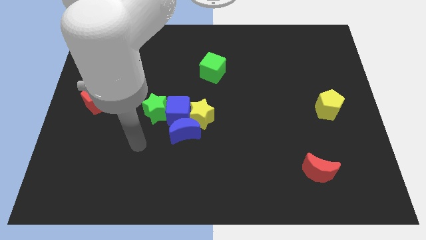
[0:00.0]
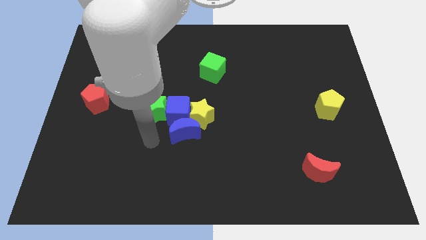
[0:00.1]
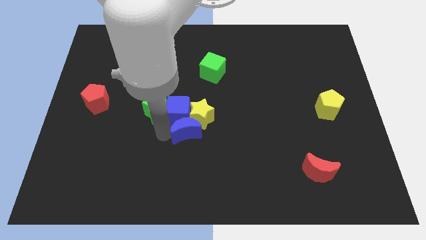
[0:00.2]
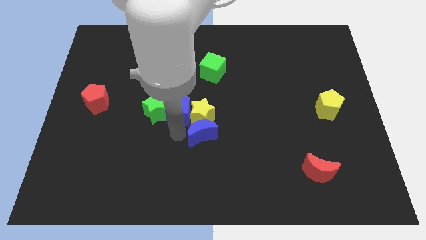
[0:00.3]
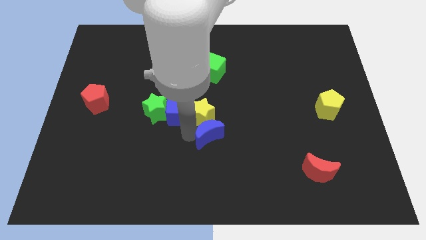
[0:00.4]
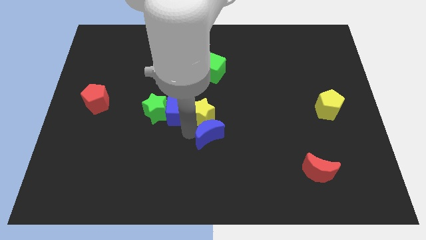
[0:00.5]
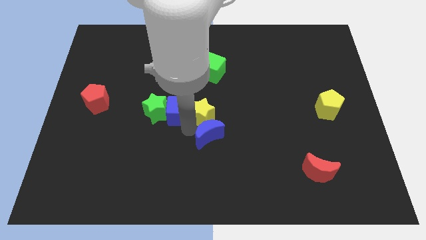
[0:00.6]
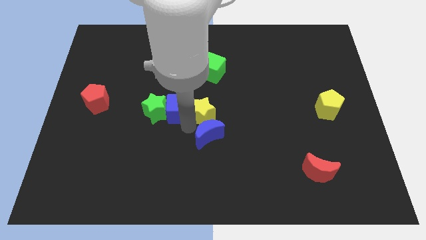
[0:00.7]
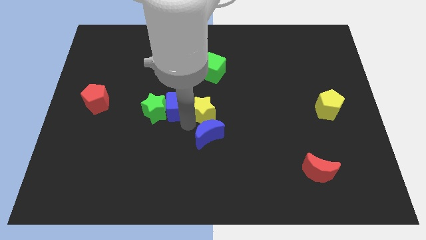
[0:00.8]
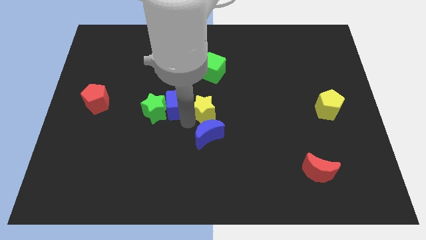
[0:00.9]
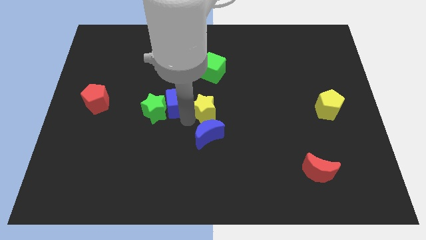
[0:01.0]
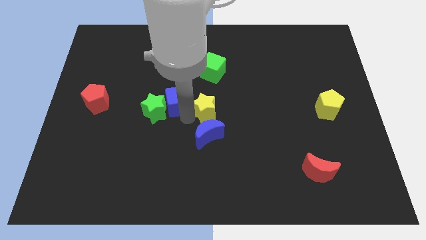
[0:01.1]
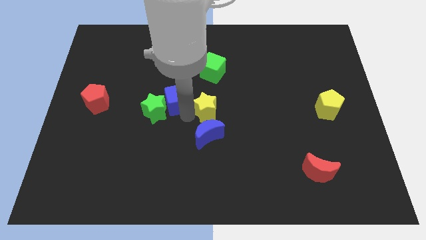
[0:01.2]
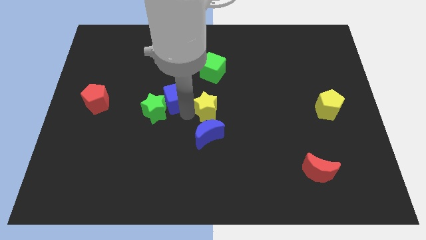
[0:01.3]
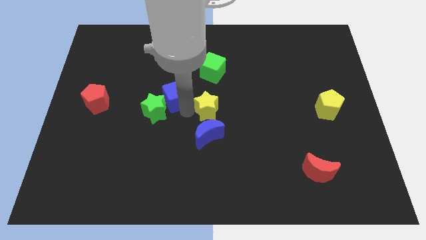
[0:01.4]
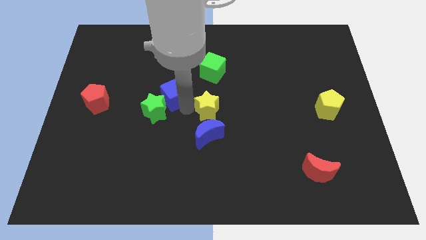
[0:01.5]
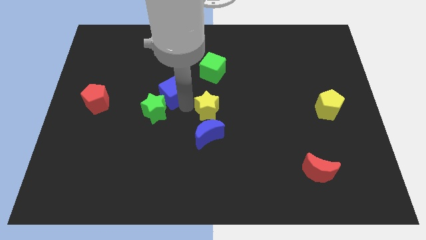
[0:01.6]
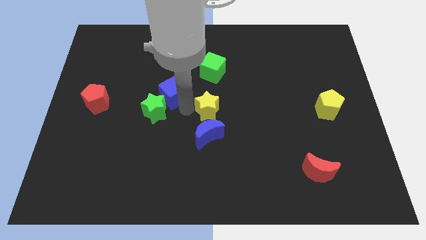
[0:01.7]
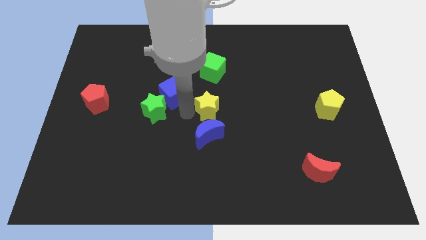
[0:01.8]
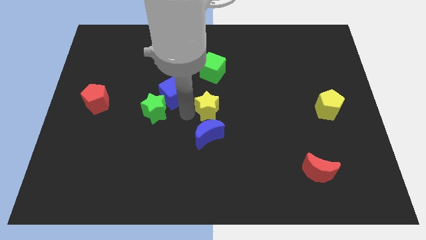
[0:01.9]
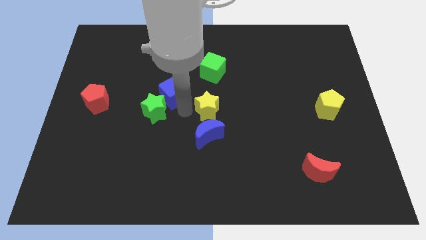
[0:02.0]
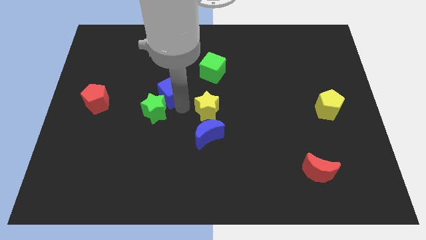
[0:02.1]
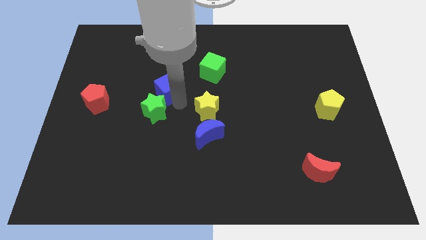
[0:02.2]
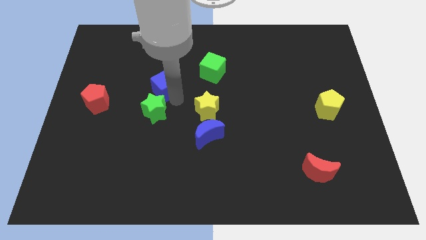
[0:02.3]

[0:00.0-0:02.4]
pull the blue cube apart from the group of blocks

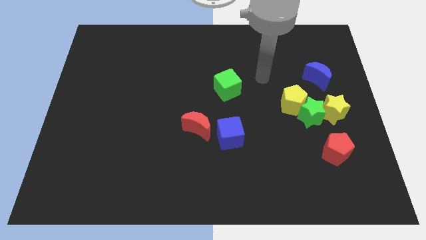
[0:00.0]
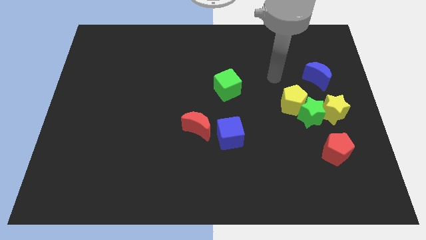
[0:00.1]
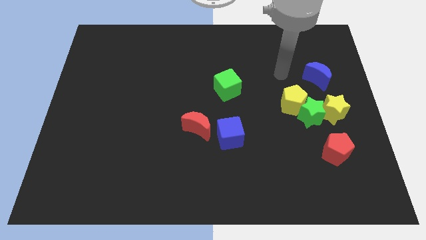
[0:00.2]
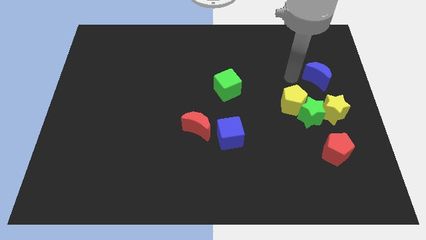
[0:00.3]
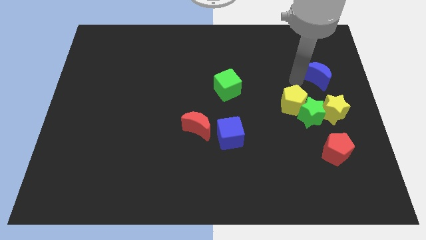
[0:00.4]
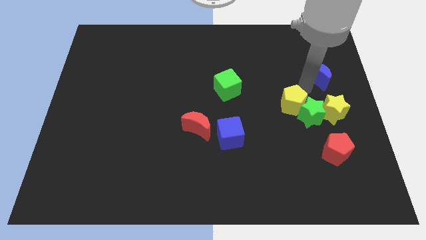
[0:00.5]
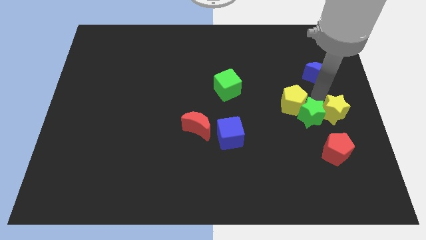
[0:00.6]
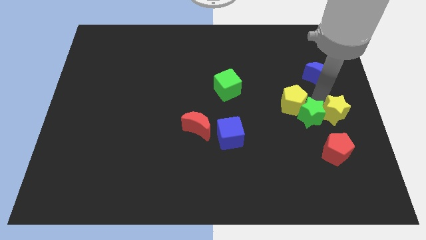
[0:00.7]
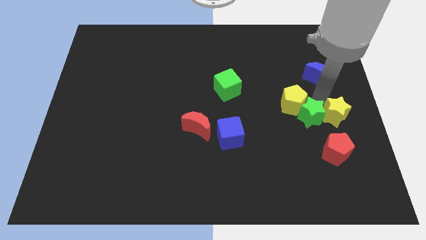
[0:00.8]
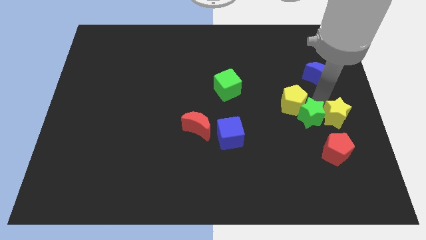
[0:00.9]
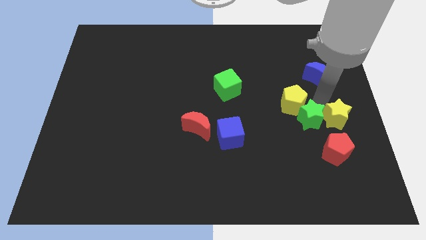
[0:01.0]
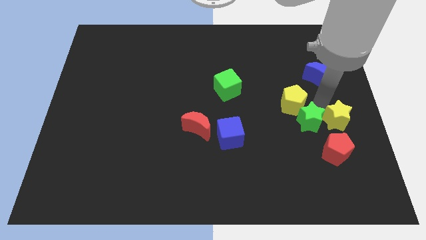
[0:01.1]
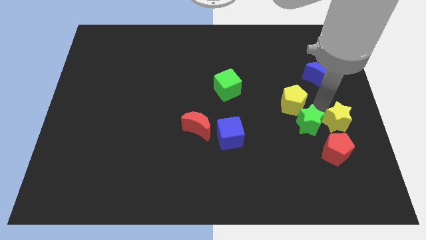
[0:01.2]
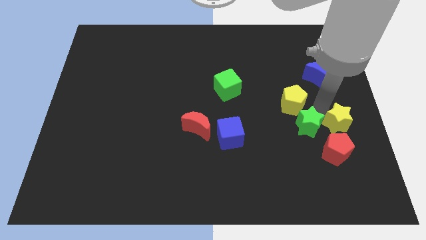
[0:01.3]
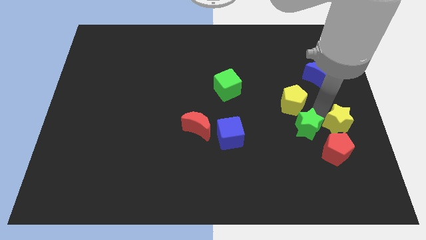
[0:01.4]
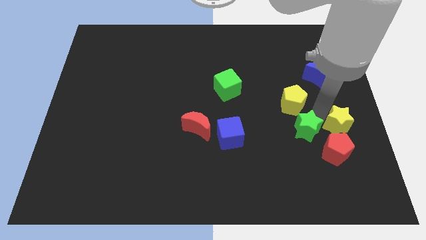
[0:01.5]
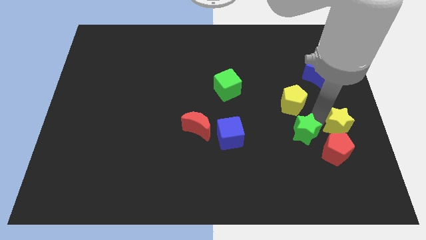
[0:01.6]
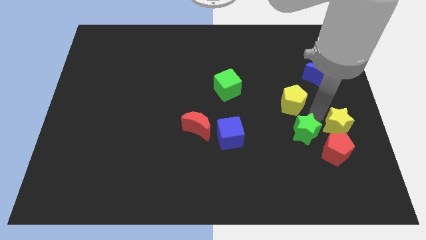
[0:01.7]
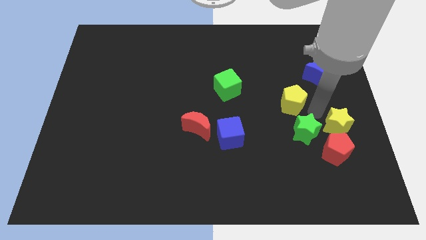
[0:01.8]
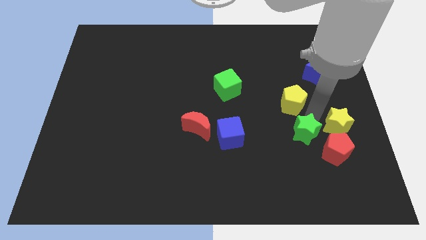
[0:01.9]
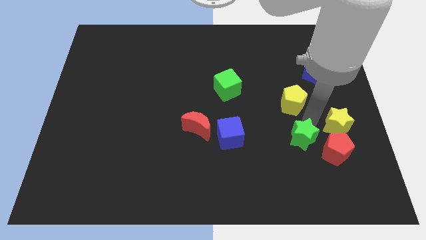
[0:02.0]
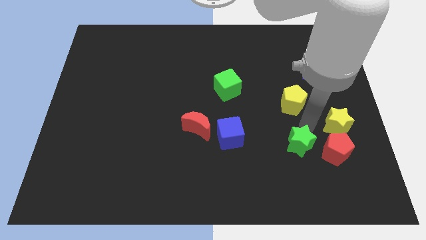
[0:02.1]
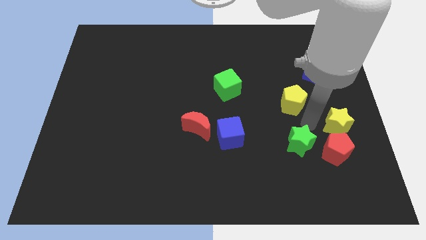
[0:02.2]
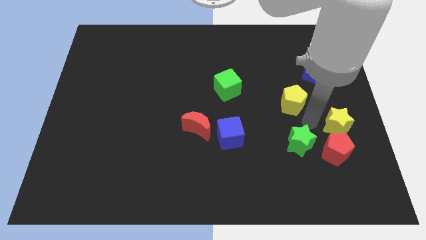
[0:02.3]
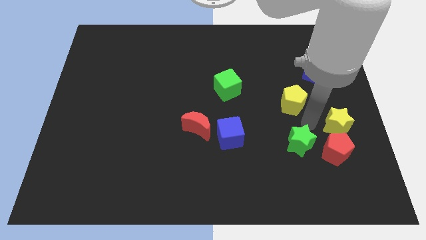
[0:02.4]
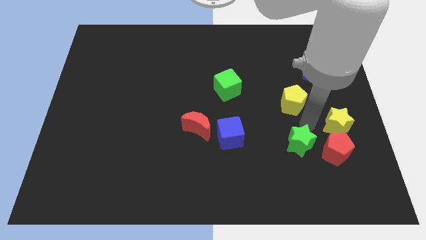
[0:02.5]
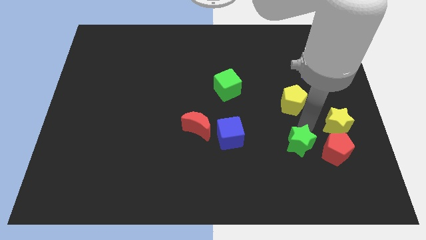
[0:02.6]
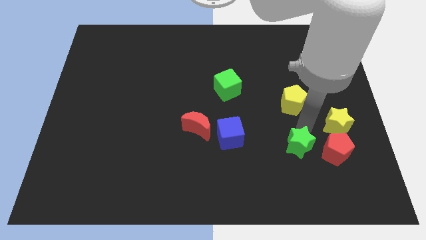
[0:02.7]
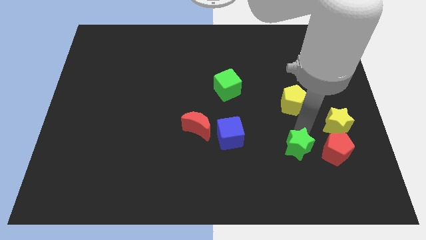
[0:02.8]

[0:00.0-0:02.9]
pull the green star apart from the yellow pentagon and yellow star

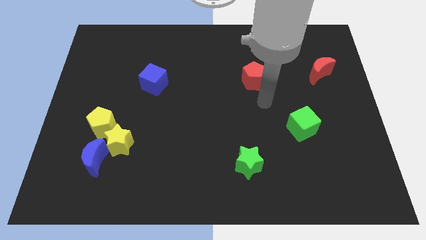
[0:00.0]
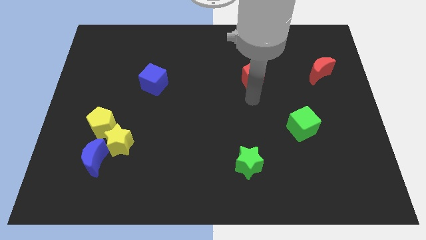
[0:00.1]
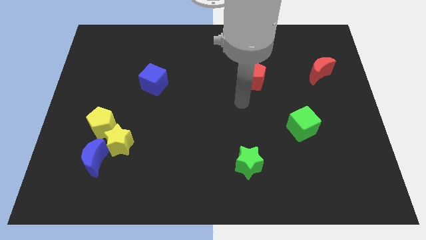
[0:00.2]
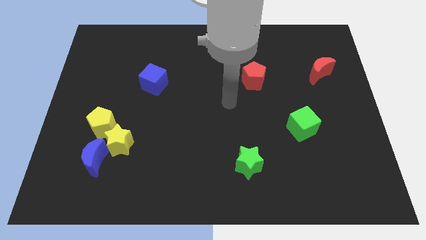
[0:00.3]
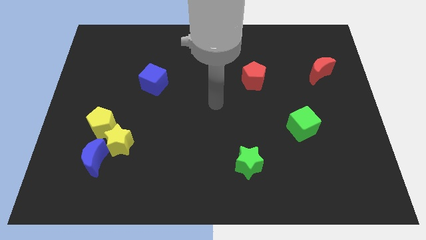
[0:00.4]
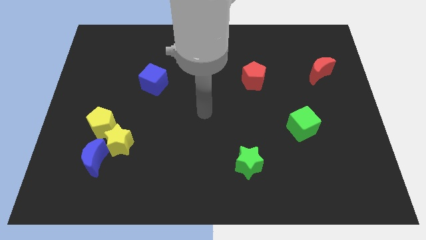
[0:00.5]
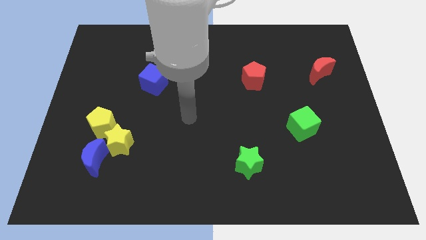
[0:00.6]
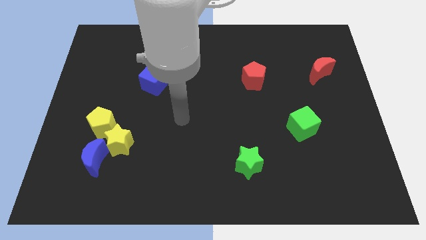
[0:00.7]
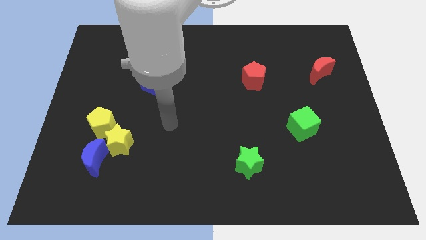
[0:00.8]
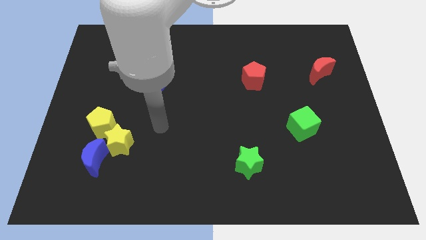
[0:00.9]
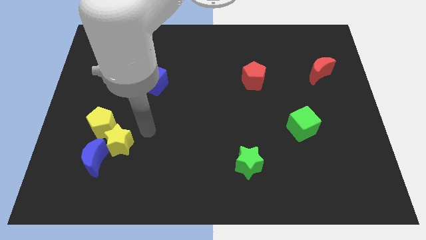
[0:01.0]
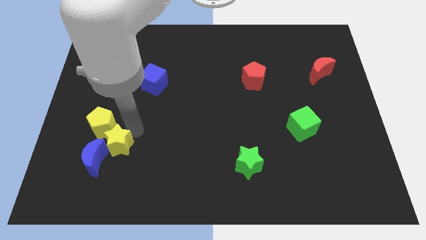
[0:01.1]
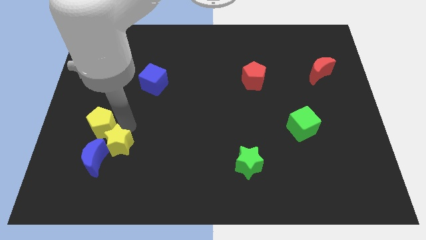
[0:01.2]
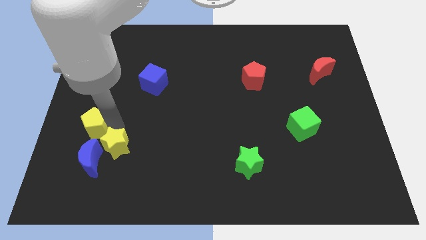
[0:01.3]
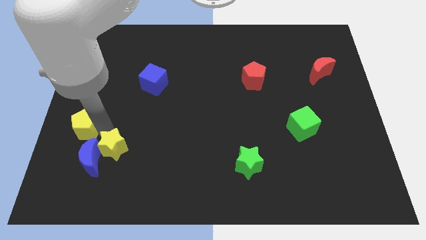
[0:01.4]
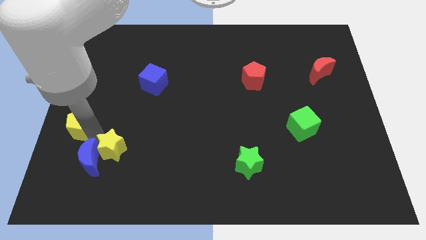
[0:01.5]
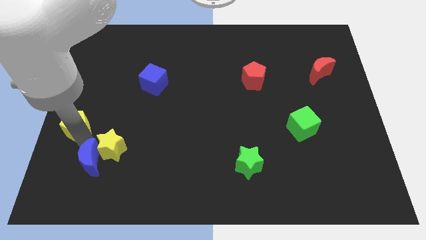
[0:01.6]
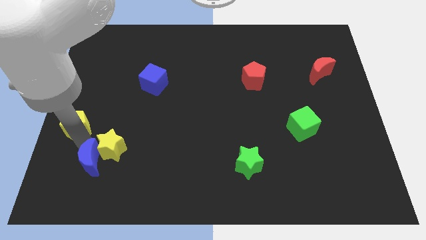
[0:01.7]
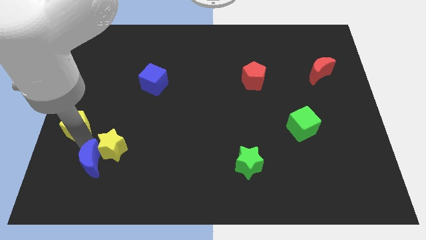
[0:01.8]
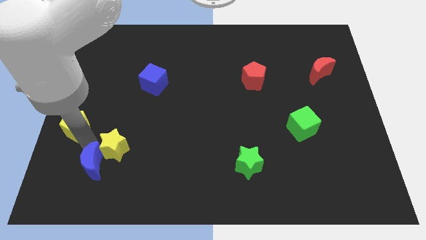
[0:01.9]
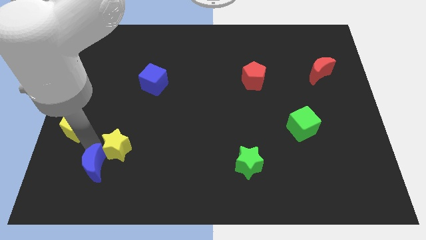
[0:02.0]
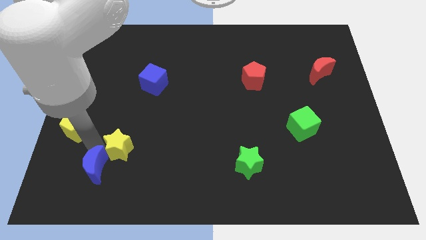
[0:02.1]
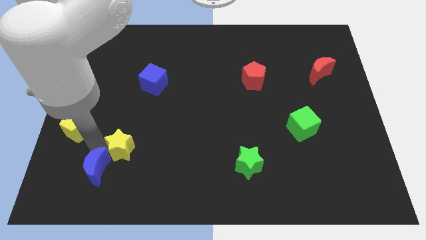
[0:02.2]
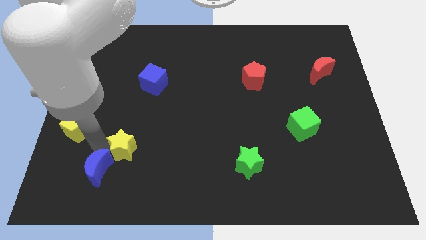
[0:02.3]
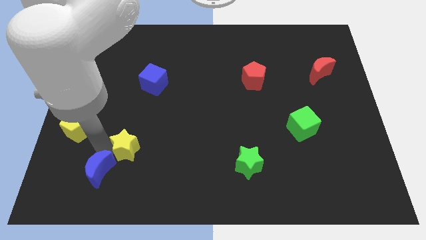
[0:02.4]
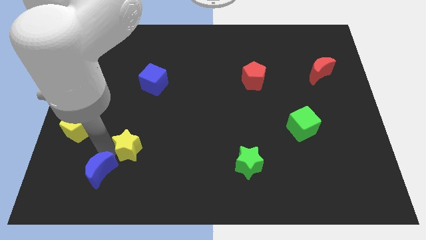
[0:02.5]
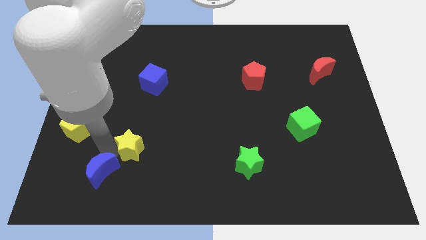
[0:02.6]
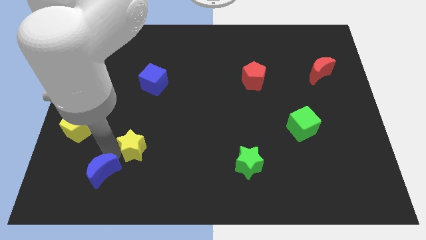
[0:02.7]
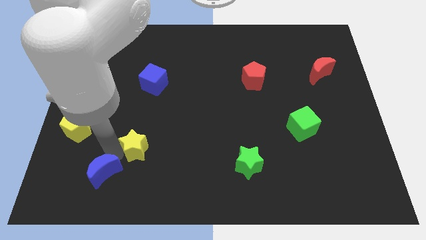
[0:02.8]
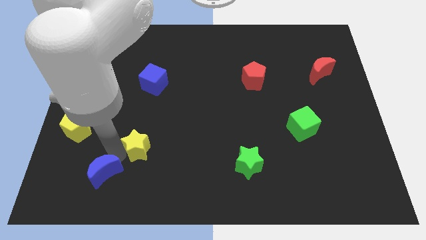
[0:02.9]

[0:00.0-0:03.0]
separate the yellow star from the blue moon and yellow pentagon

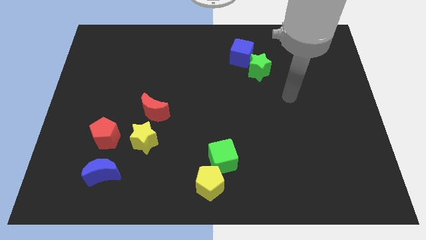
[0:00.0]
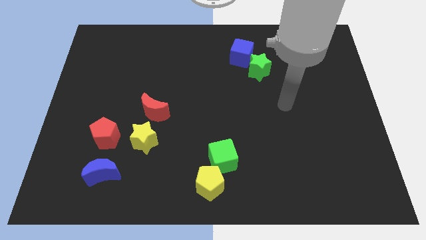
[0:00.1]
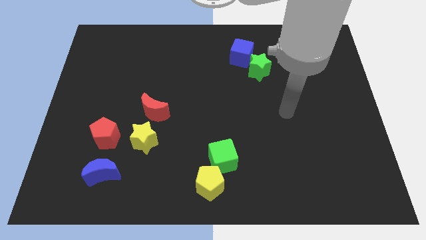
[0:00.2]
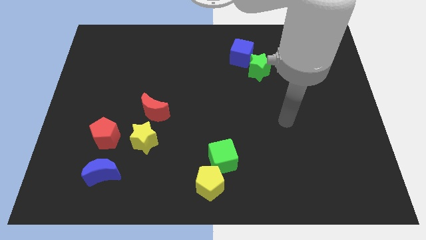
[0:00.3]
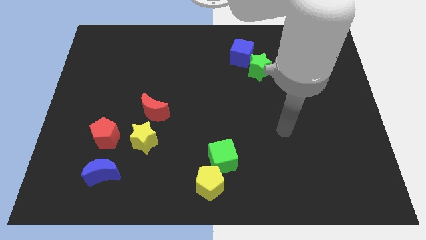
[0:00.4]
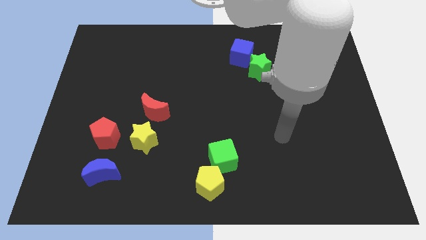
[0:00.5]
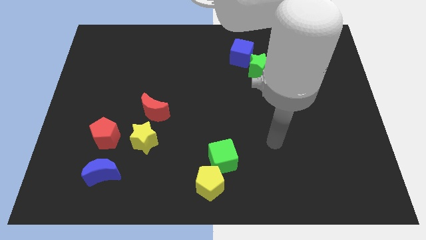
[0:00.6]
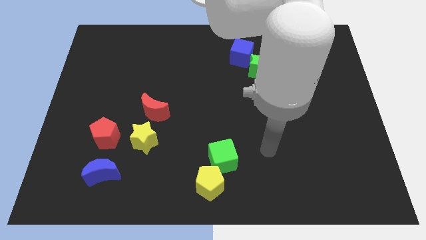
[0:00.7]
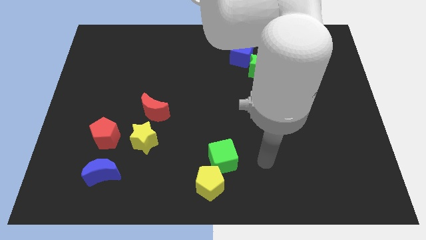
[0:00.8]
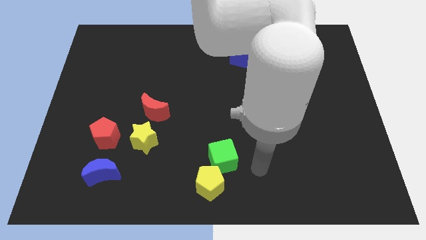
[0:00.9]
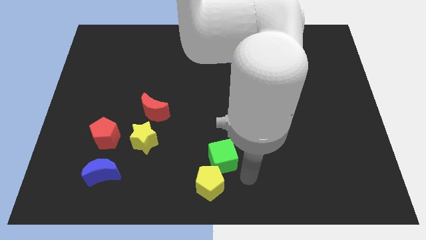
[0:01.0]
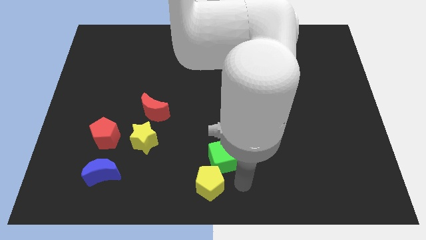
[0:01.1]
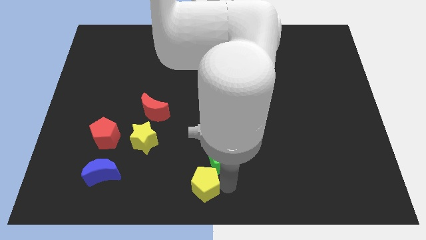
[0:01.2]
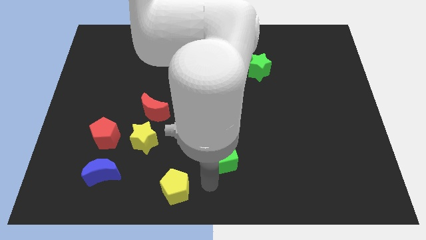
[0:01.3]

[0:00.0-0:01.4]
separate the green cube from the yellow pentagon
